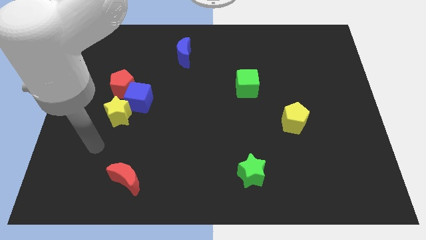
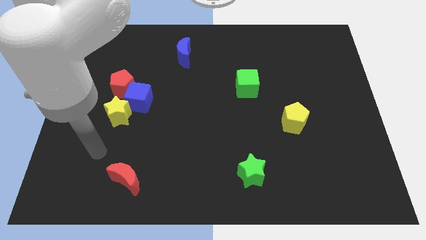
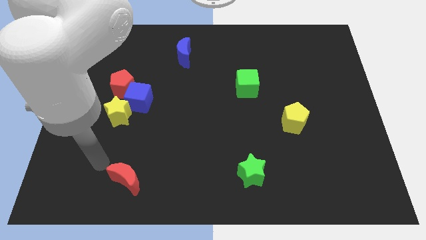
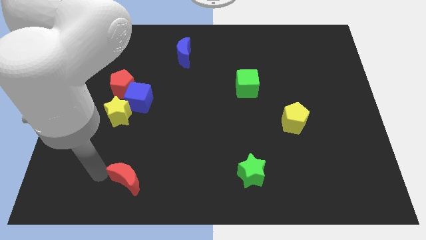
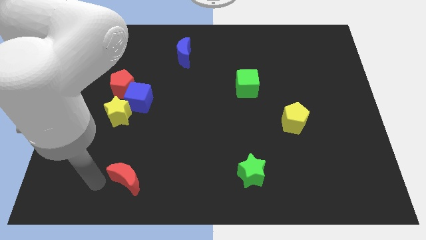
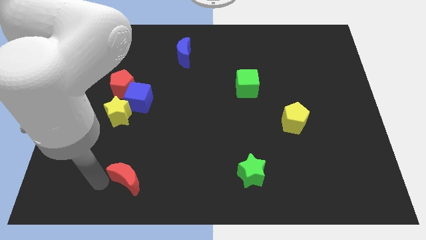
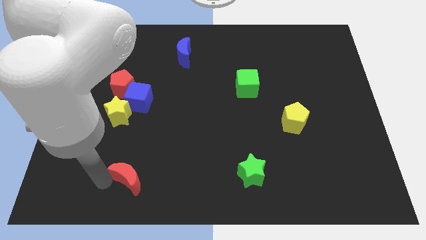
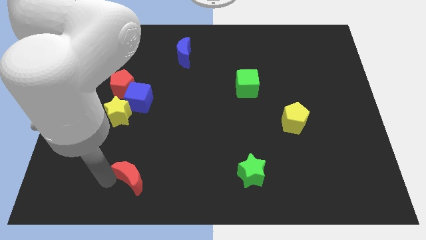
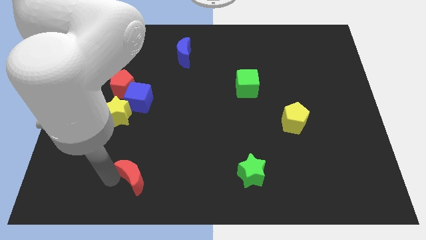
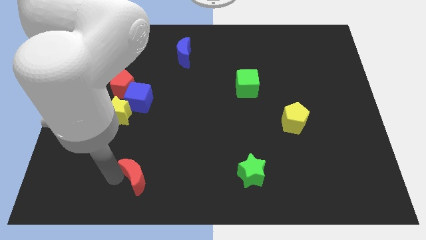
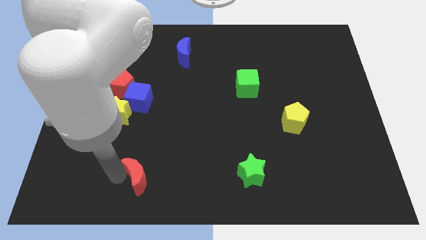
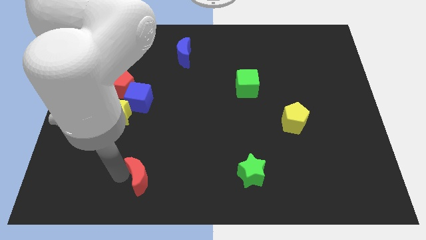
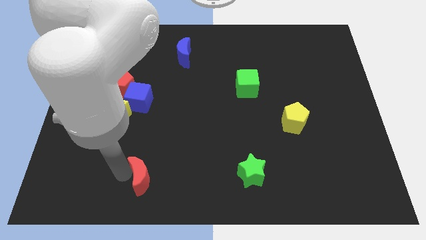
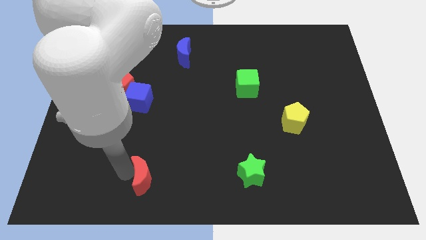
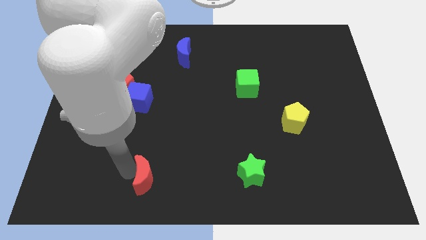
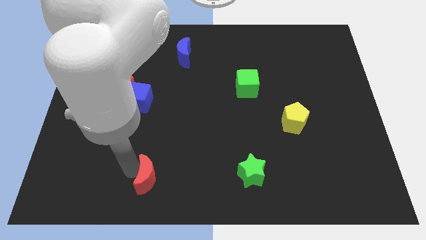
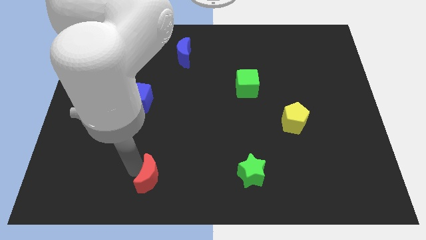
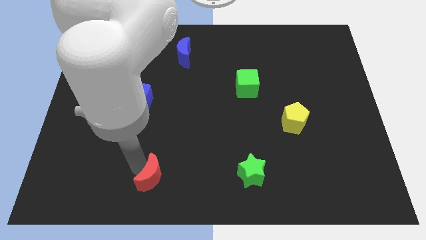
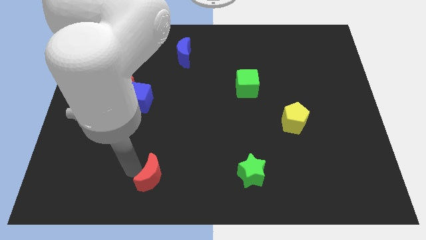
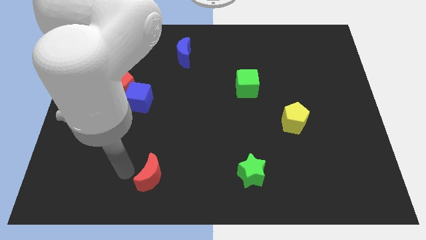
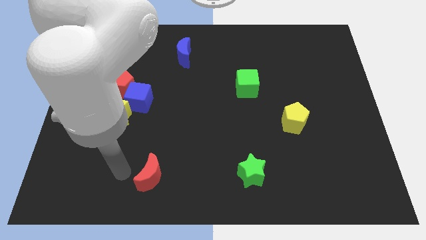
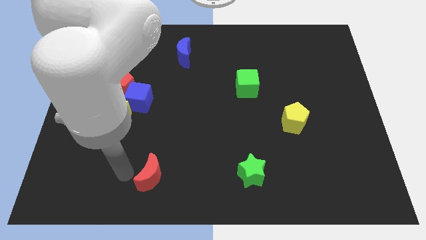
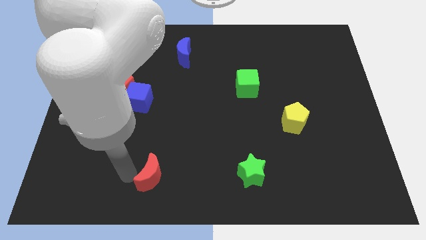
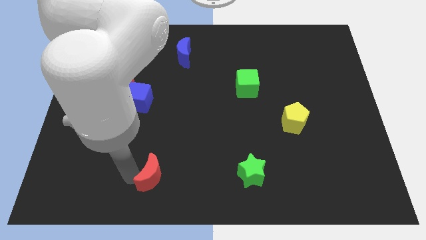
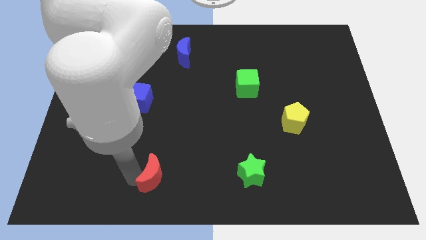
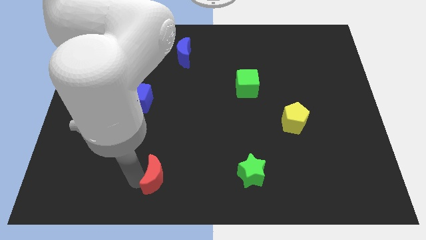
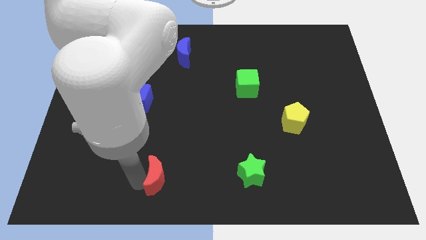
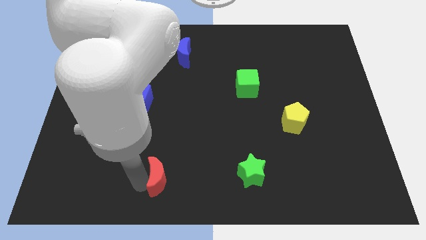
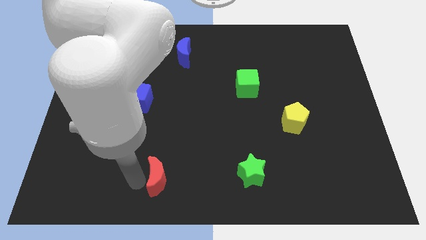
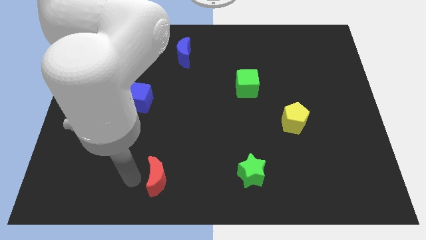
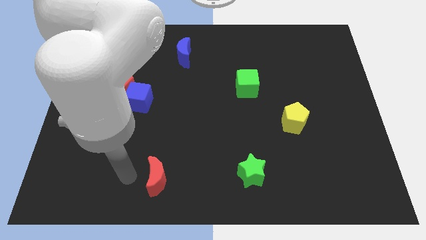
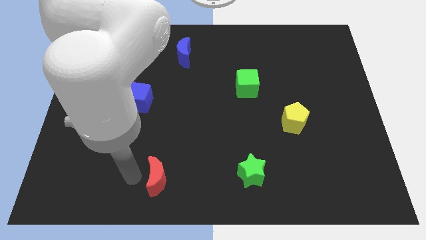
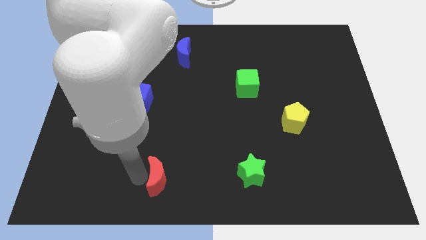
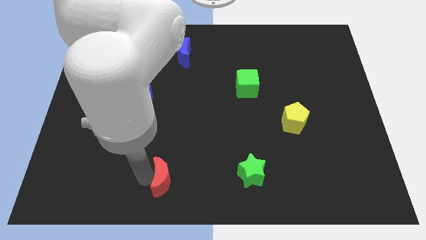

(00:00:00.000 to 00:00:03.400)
move the red moon slightly right

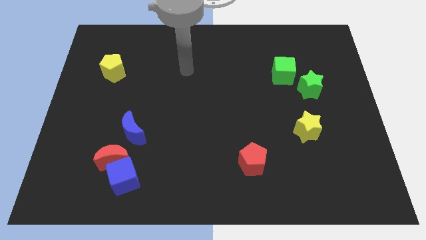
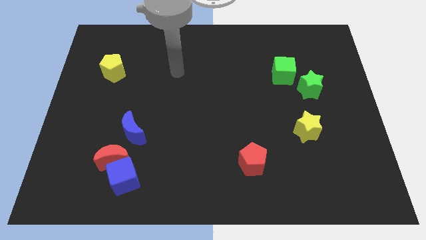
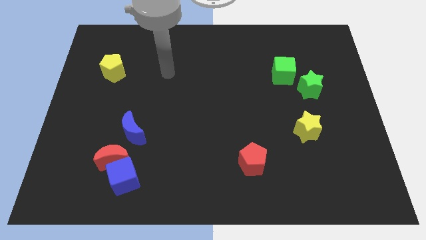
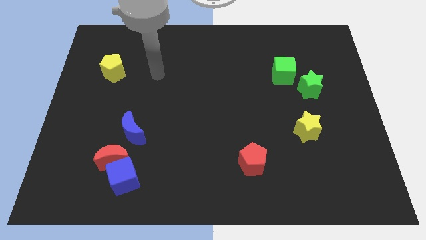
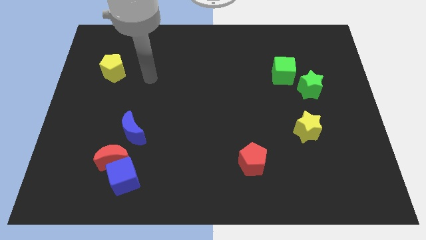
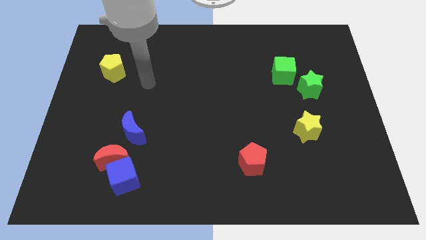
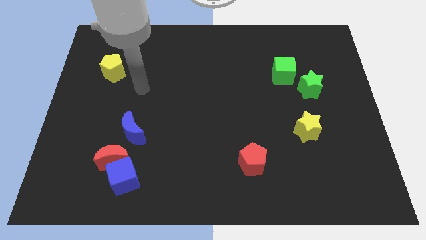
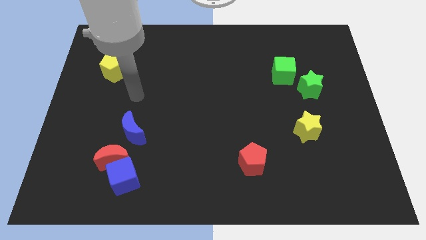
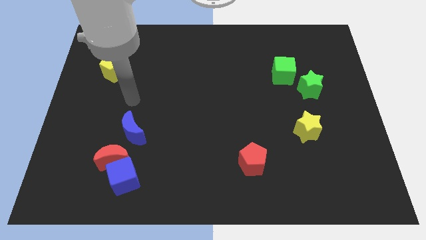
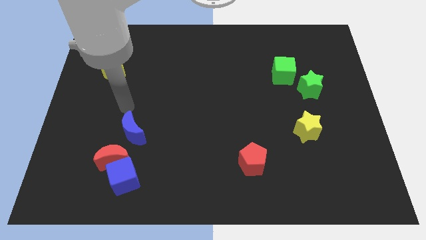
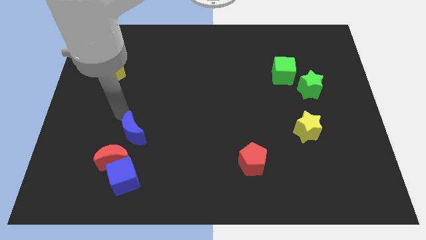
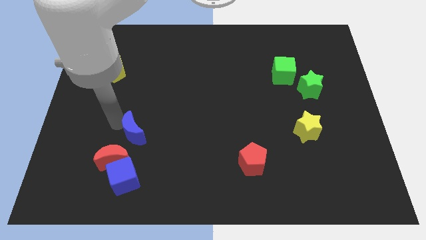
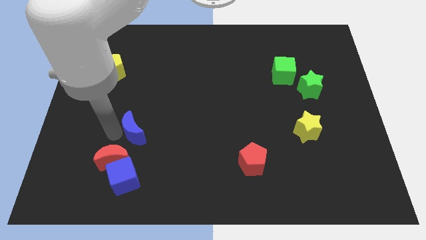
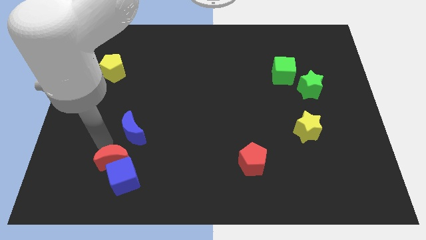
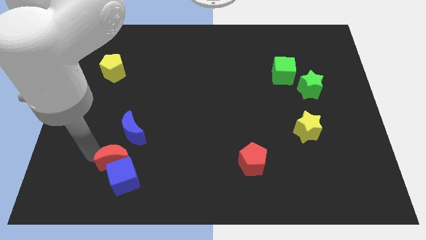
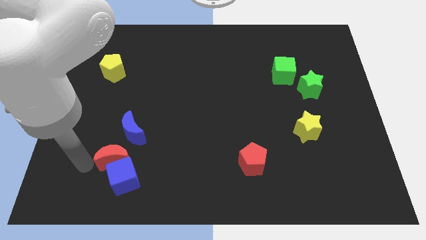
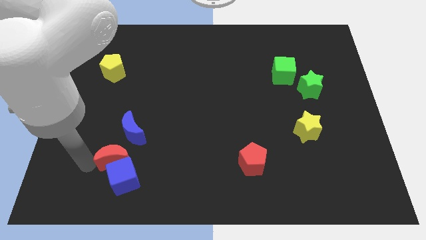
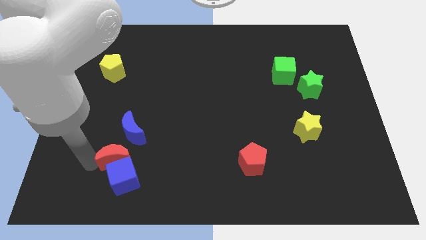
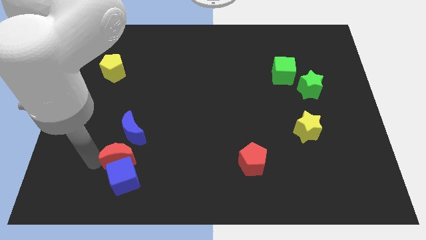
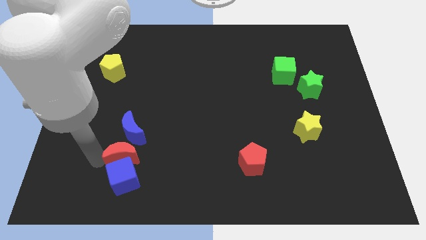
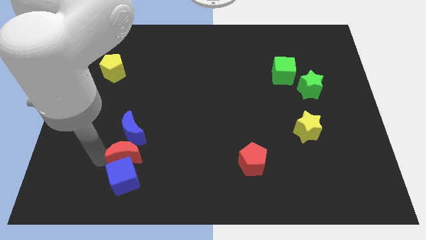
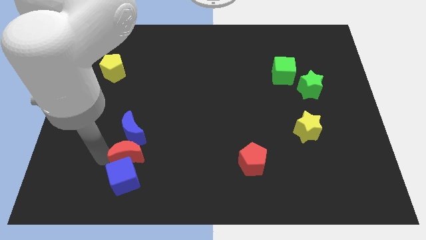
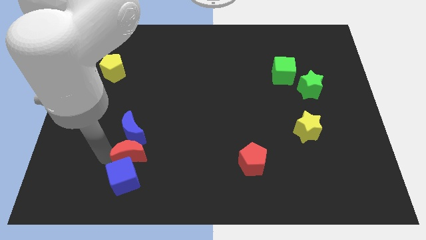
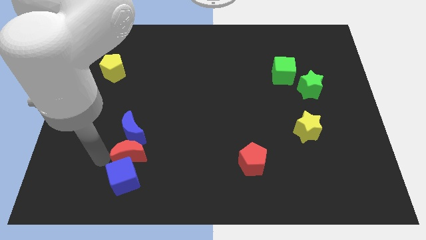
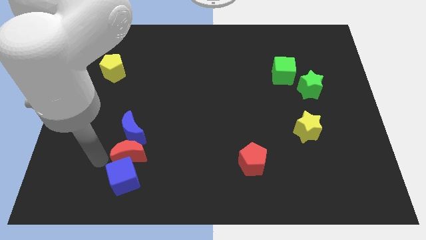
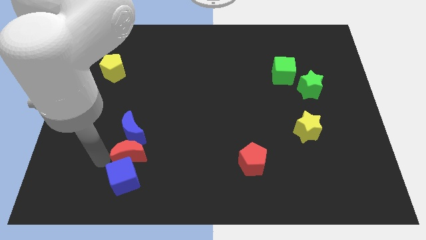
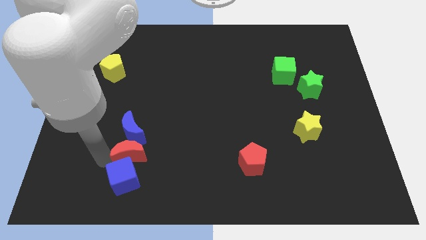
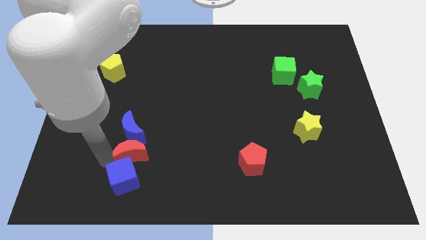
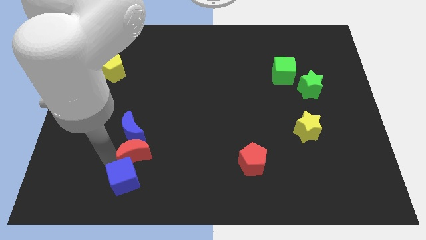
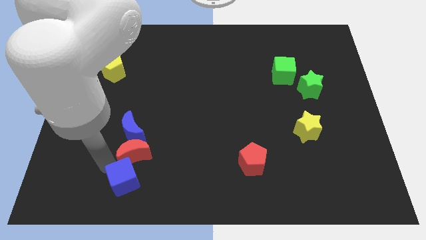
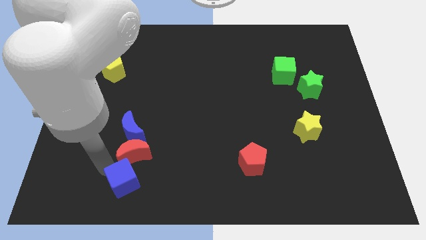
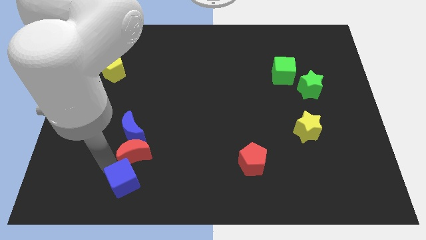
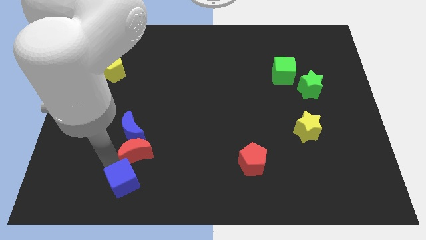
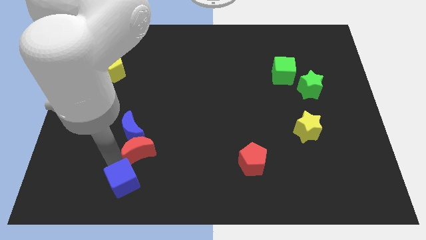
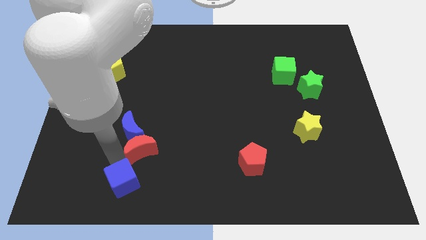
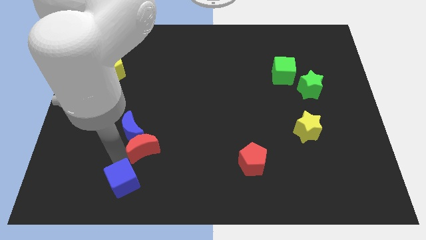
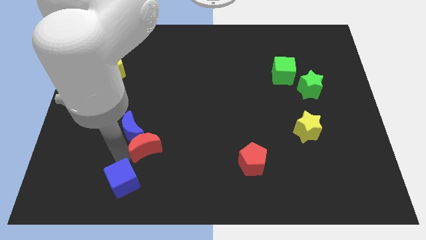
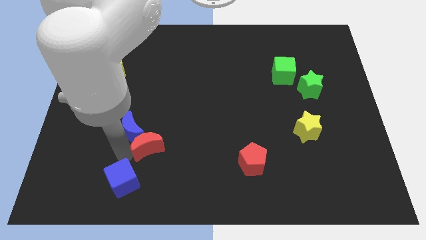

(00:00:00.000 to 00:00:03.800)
move the red moon up and then right somewhat

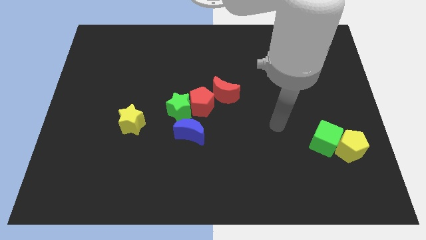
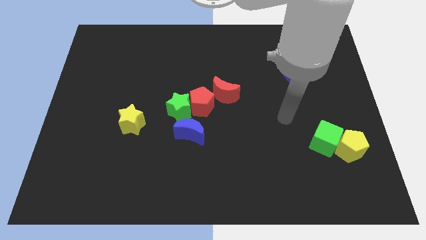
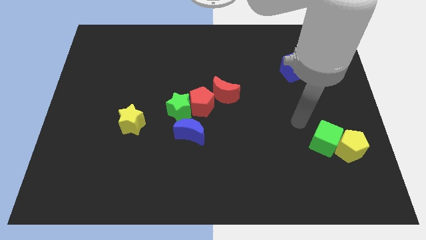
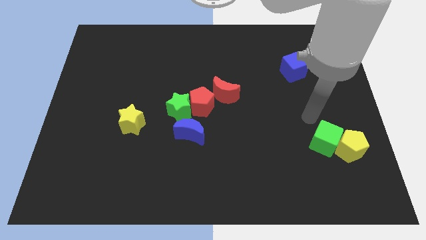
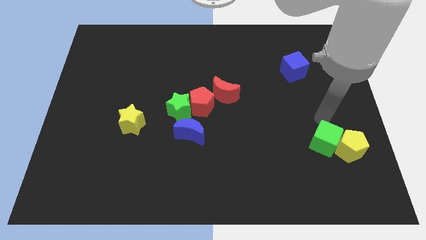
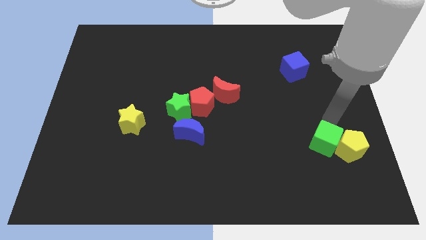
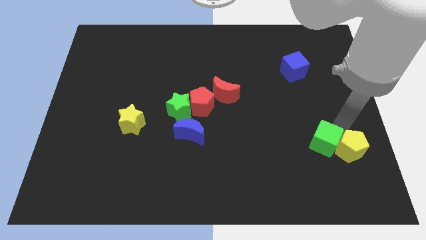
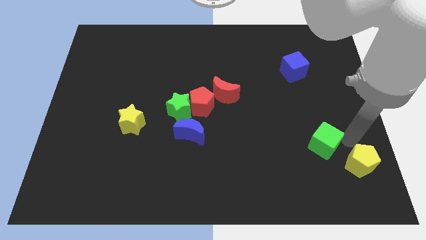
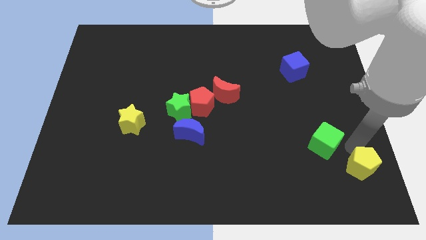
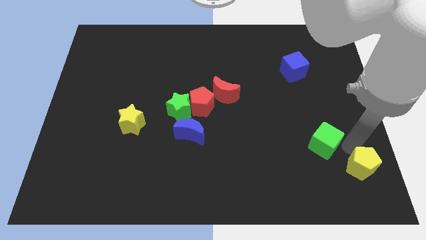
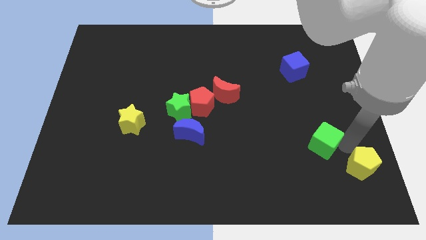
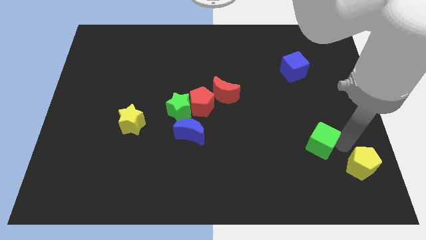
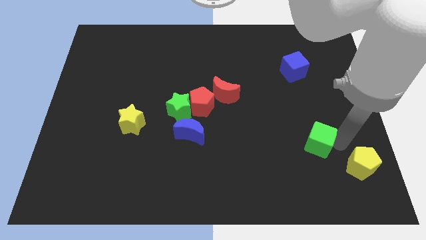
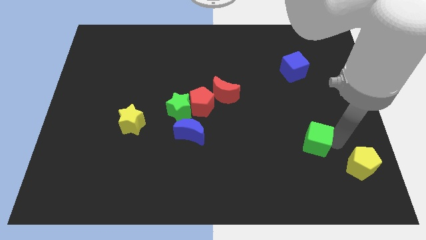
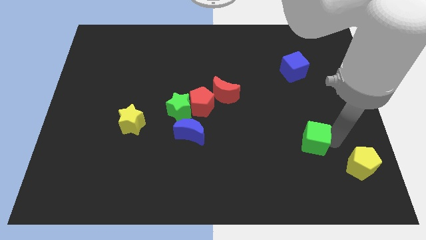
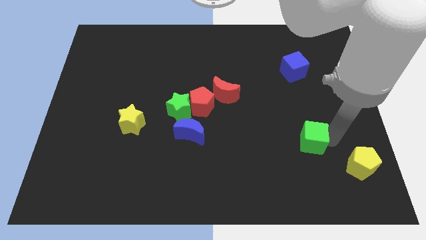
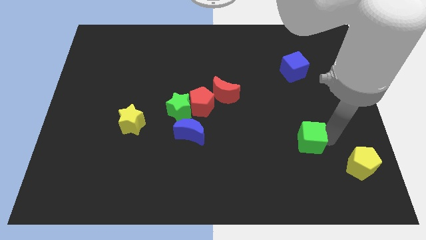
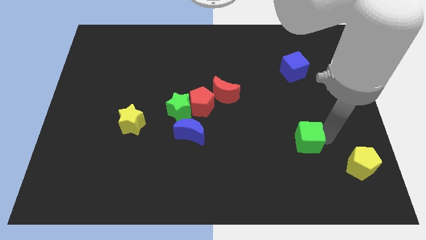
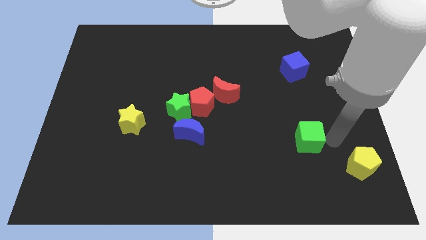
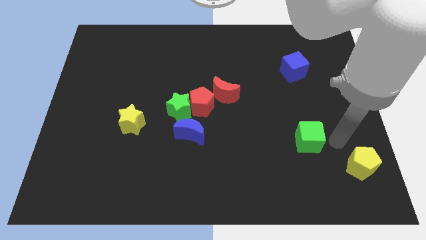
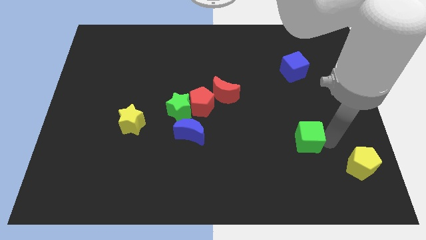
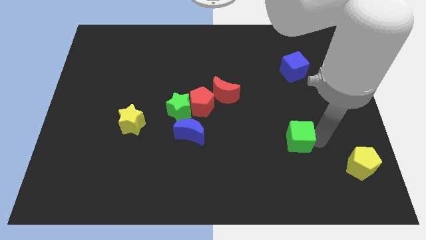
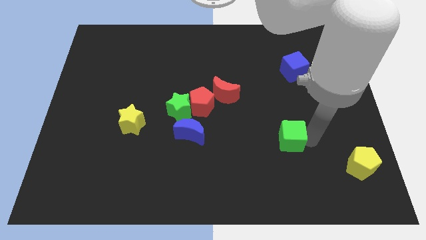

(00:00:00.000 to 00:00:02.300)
slide the green cube left a little
